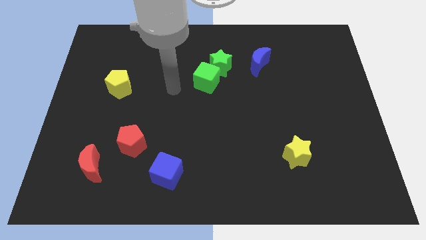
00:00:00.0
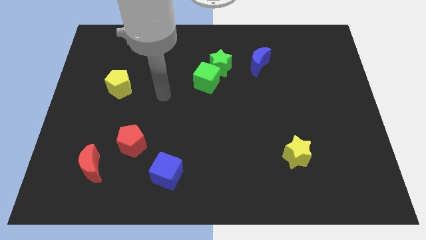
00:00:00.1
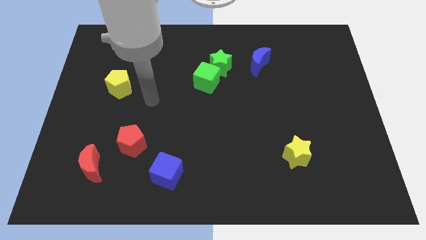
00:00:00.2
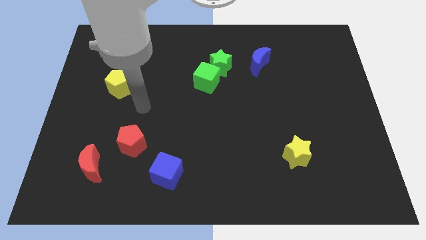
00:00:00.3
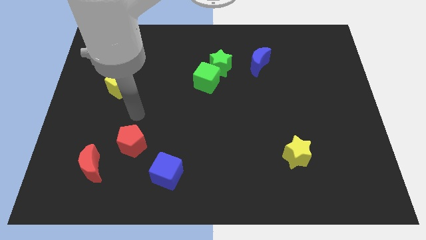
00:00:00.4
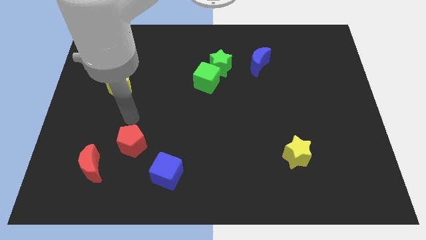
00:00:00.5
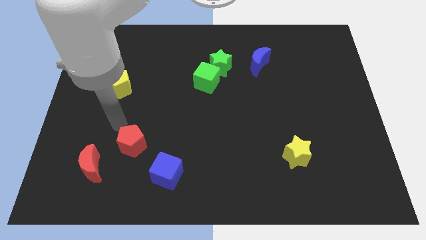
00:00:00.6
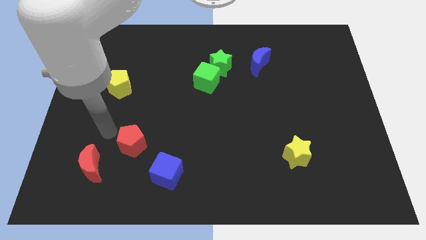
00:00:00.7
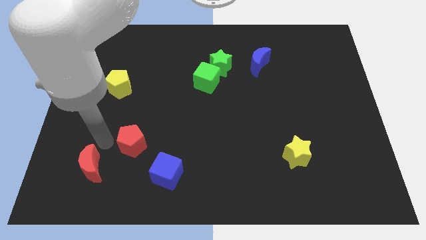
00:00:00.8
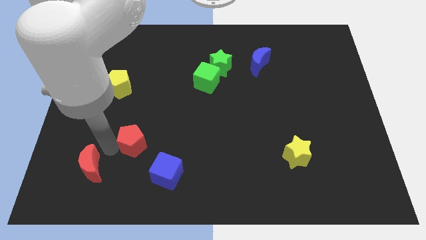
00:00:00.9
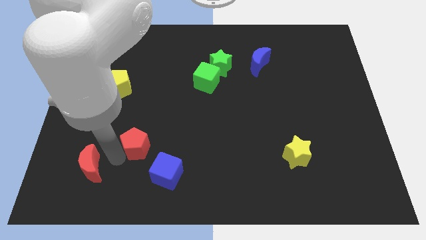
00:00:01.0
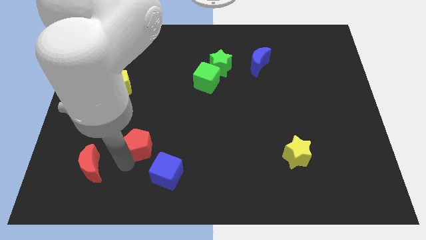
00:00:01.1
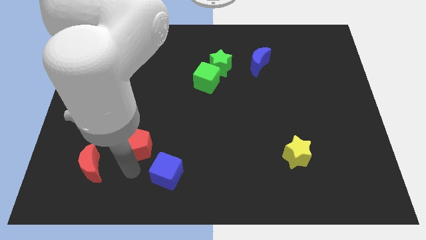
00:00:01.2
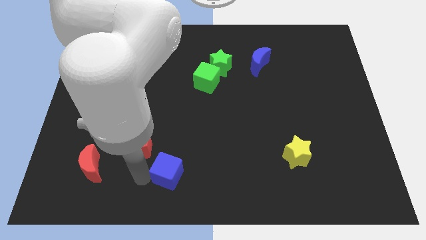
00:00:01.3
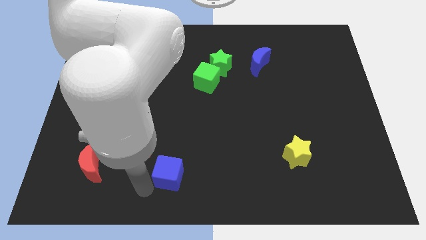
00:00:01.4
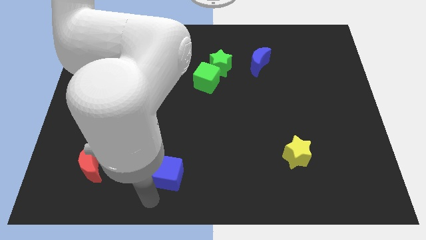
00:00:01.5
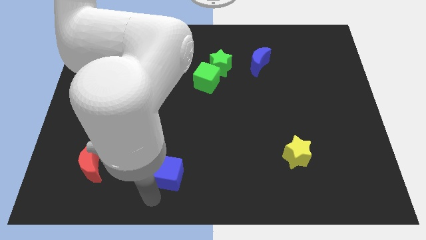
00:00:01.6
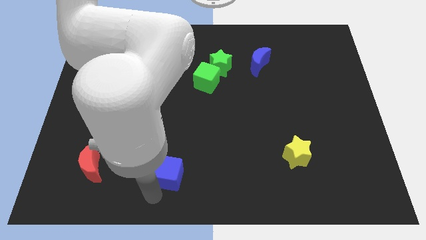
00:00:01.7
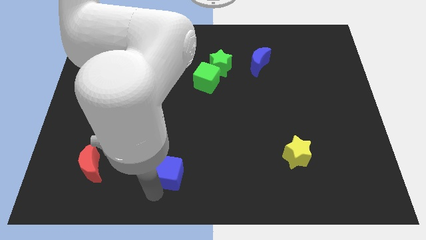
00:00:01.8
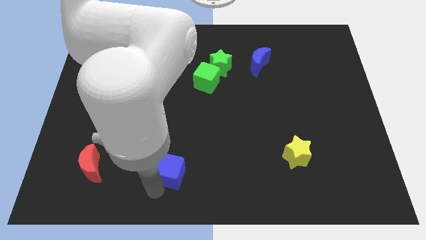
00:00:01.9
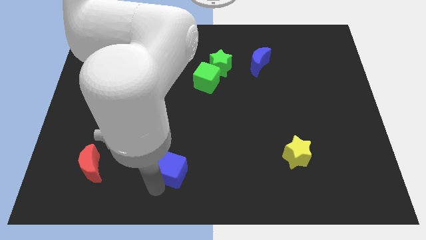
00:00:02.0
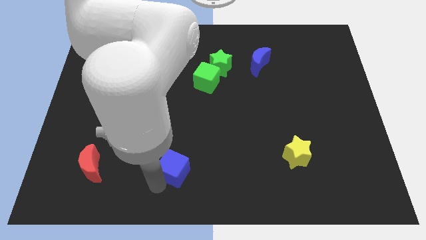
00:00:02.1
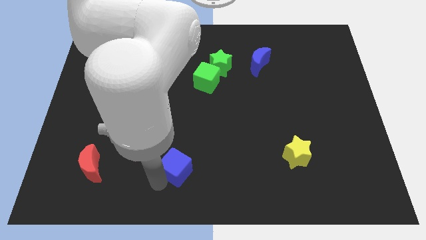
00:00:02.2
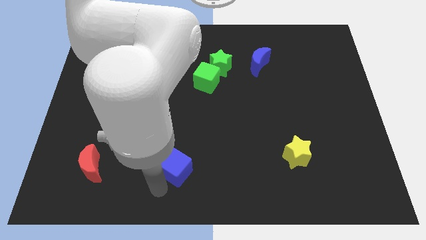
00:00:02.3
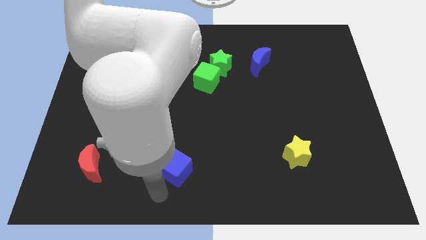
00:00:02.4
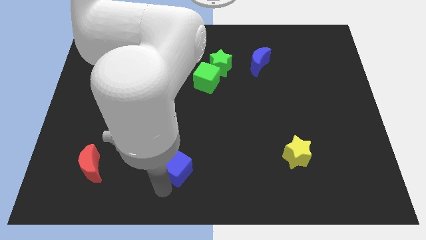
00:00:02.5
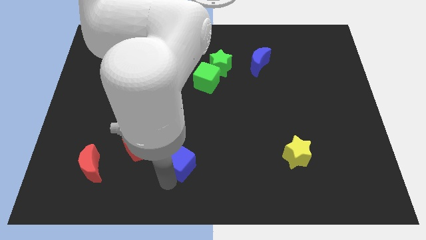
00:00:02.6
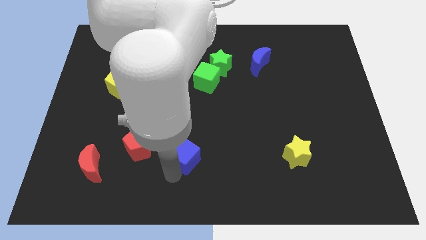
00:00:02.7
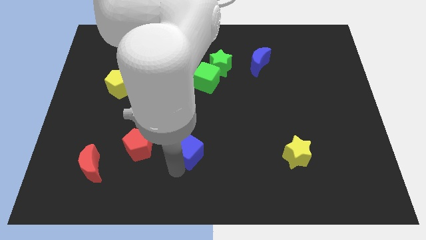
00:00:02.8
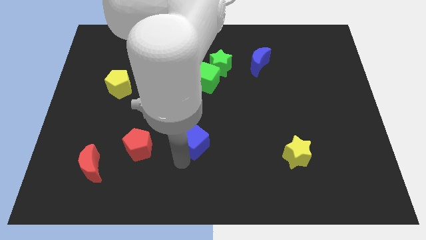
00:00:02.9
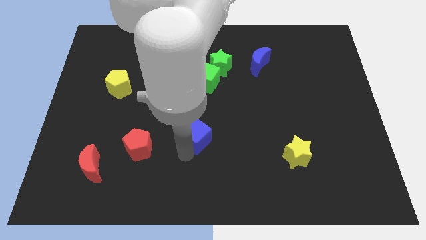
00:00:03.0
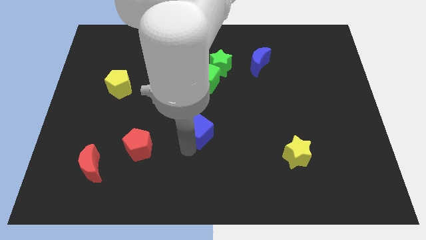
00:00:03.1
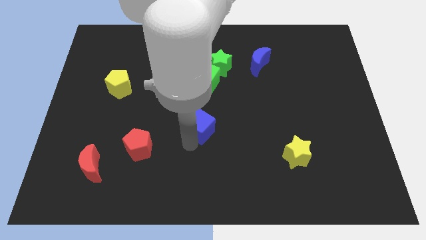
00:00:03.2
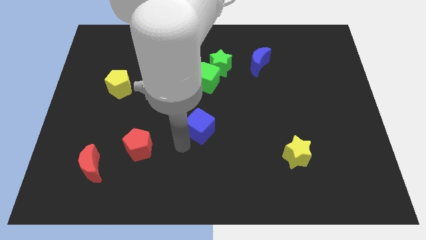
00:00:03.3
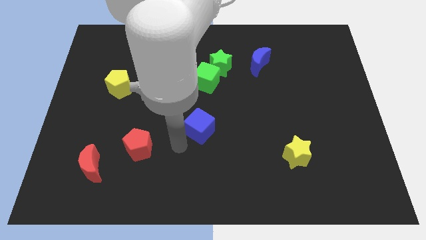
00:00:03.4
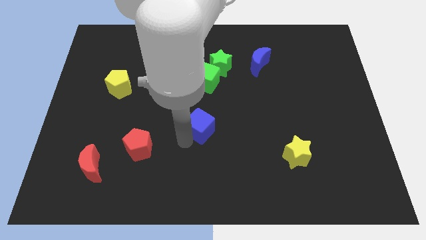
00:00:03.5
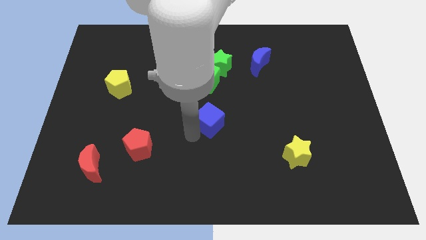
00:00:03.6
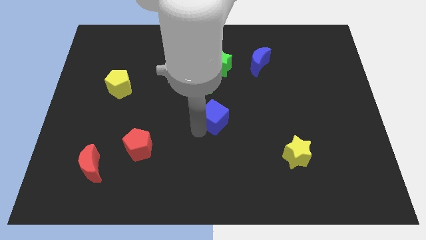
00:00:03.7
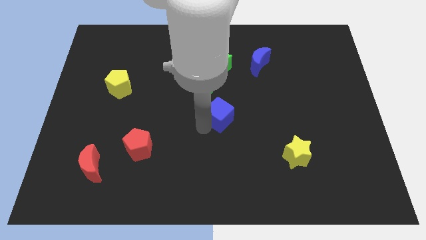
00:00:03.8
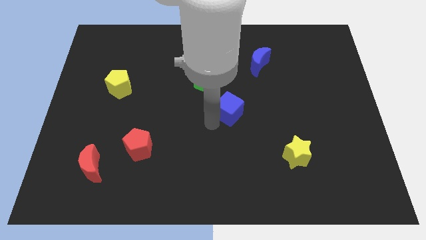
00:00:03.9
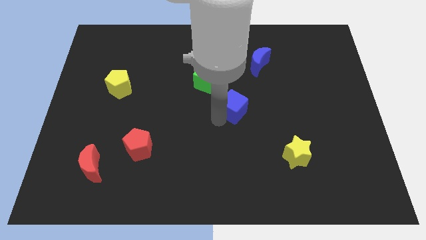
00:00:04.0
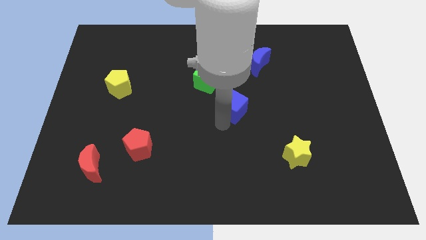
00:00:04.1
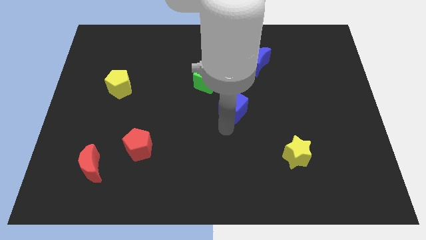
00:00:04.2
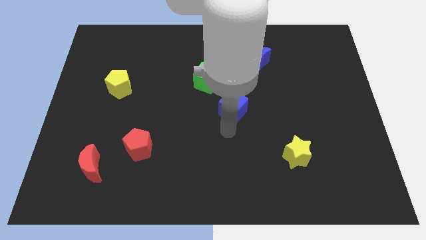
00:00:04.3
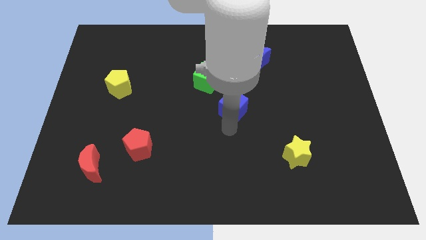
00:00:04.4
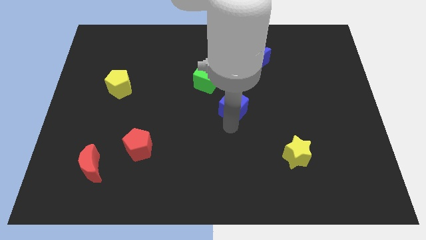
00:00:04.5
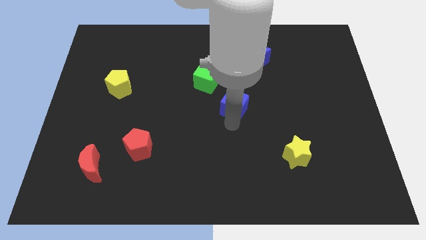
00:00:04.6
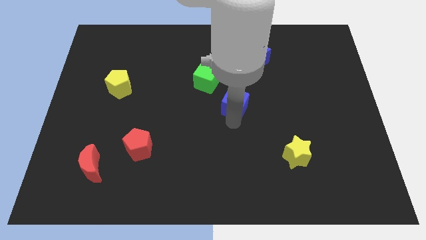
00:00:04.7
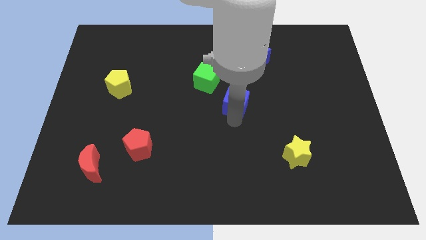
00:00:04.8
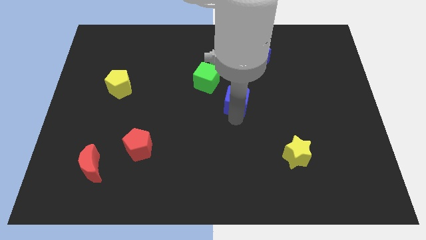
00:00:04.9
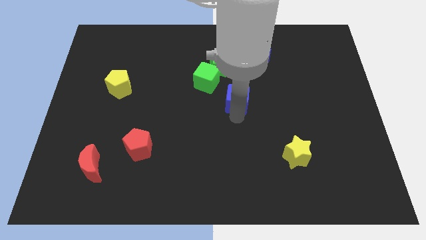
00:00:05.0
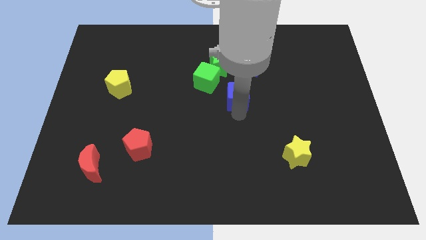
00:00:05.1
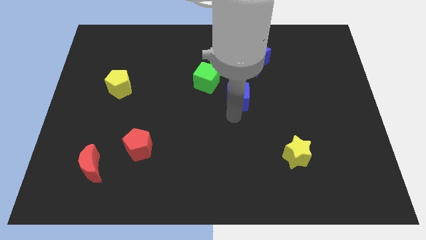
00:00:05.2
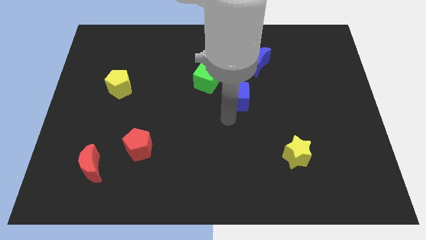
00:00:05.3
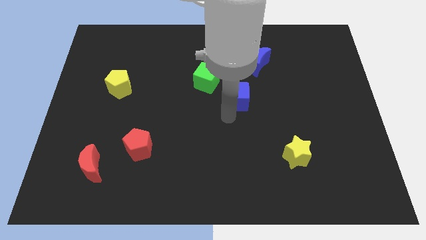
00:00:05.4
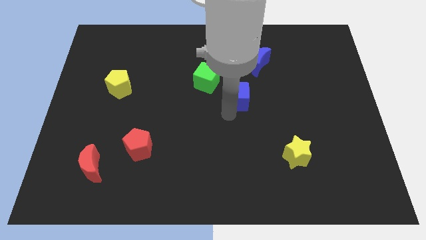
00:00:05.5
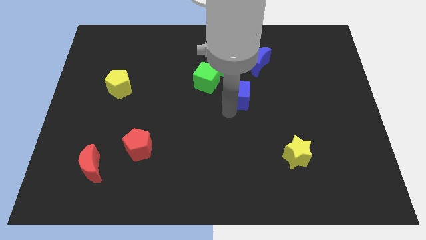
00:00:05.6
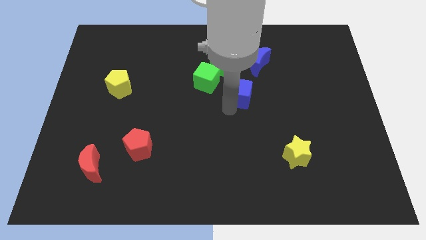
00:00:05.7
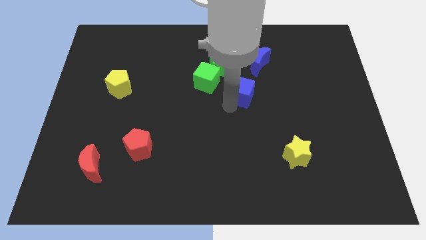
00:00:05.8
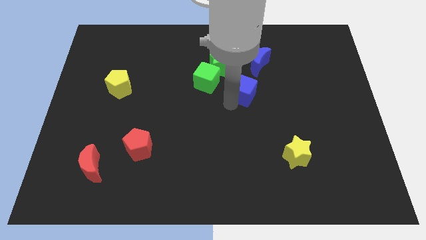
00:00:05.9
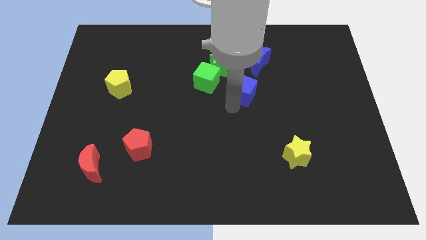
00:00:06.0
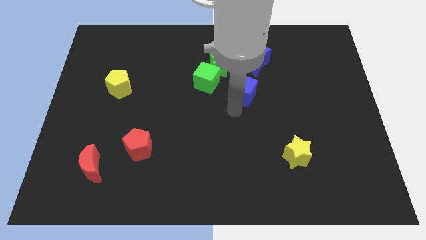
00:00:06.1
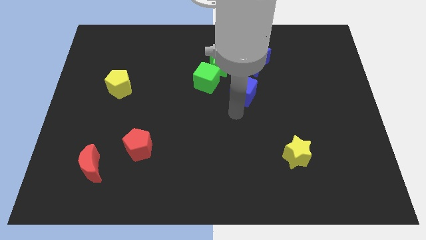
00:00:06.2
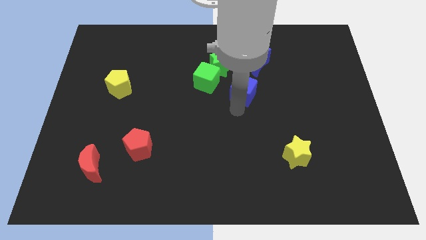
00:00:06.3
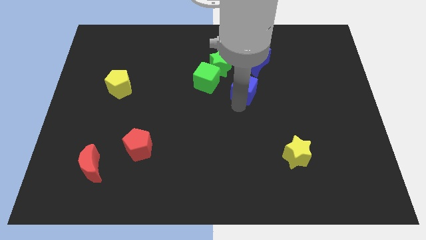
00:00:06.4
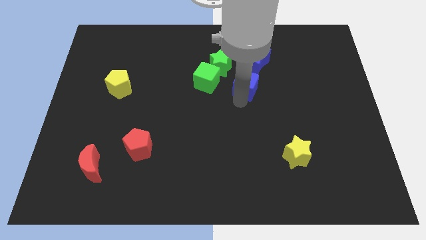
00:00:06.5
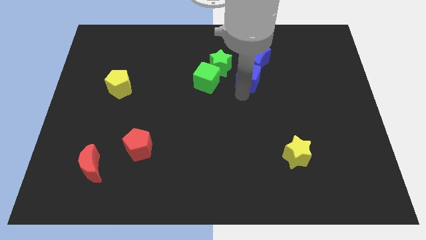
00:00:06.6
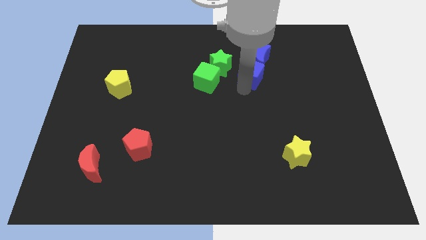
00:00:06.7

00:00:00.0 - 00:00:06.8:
put the blue cube towards the blue moon

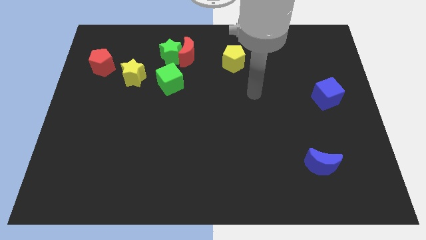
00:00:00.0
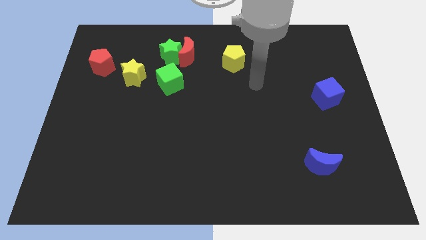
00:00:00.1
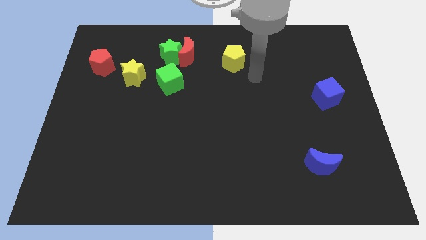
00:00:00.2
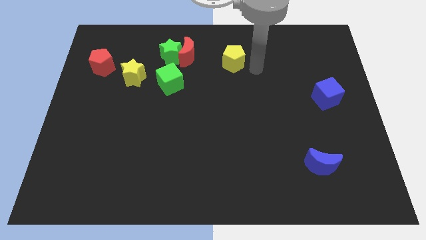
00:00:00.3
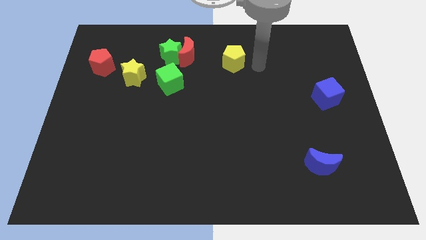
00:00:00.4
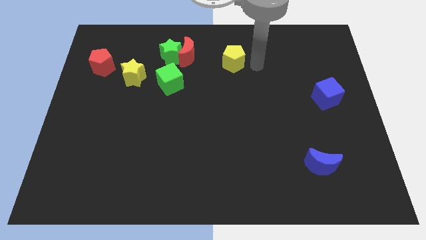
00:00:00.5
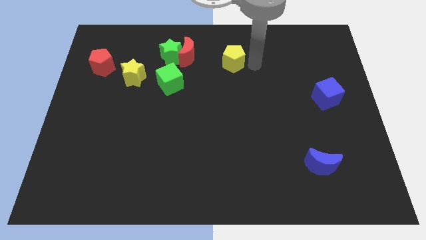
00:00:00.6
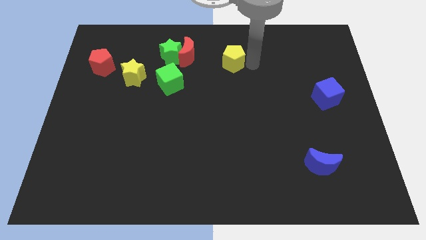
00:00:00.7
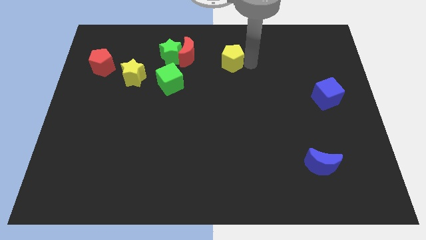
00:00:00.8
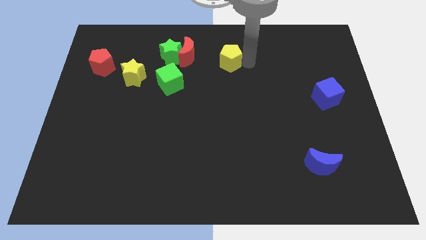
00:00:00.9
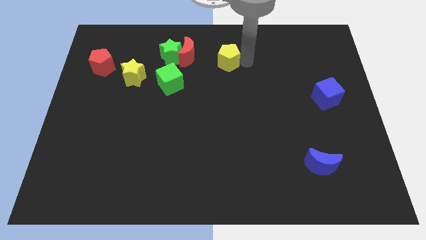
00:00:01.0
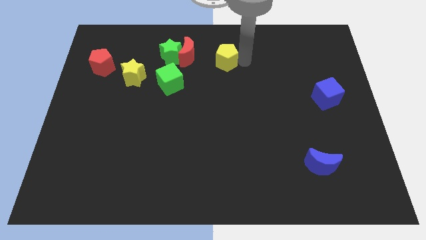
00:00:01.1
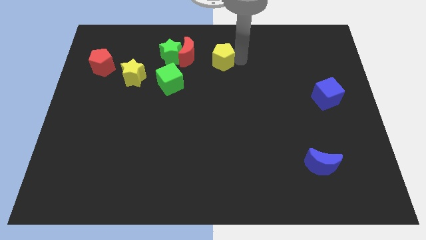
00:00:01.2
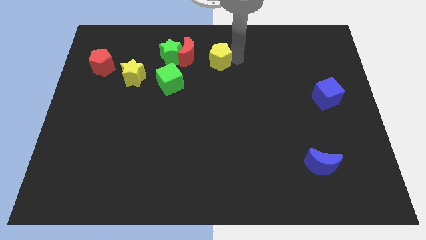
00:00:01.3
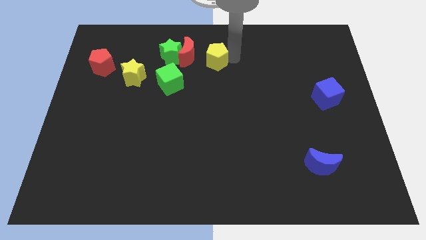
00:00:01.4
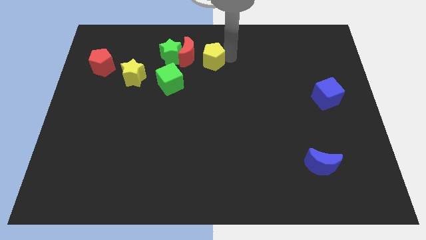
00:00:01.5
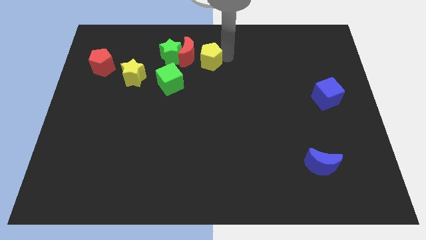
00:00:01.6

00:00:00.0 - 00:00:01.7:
put the yellow pentagon close to the red moon
